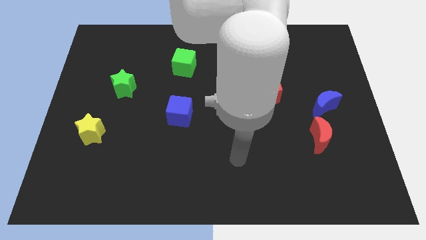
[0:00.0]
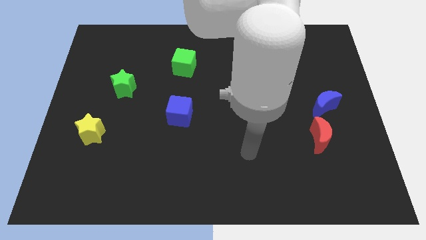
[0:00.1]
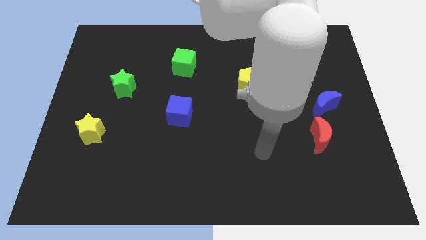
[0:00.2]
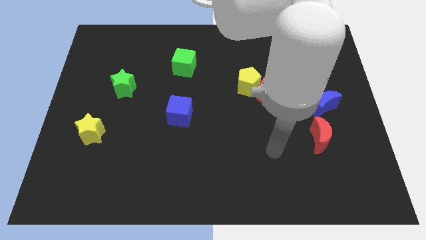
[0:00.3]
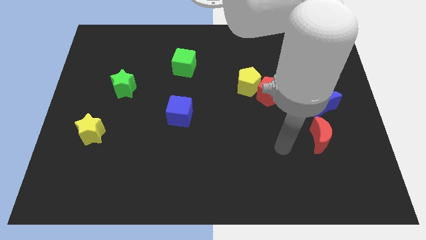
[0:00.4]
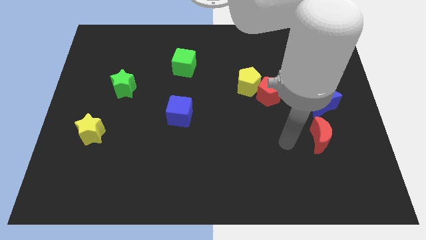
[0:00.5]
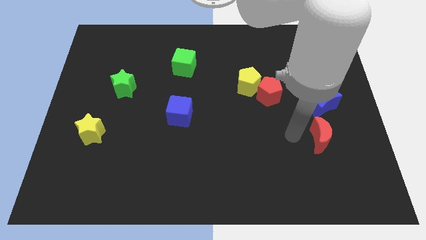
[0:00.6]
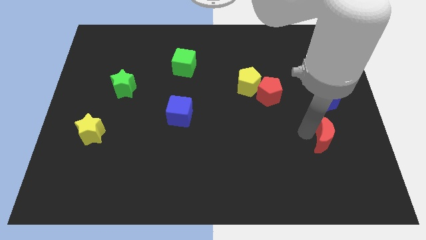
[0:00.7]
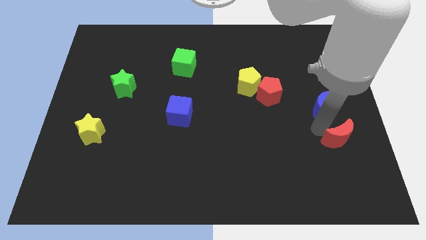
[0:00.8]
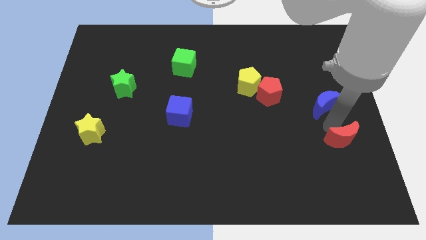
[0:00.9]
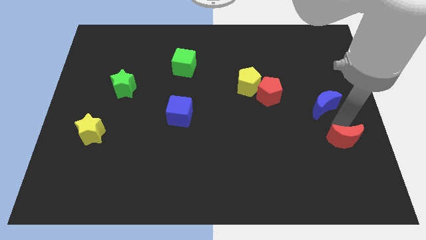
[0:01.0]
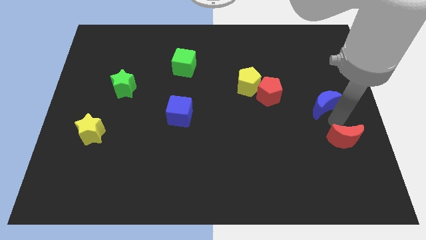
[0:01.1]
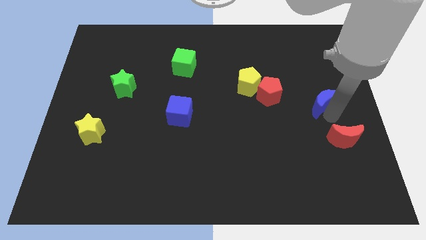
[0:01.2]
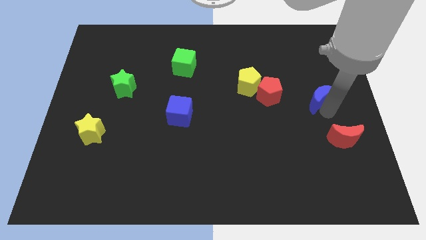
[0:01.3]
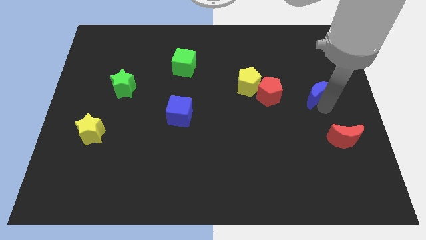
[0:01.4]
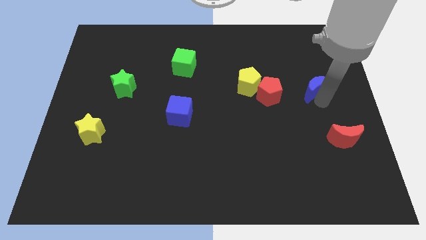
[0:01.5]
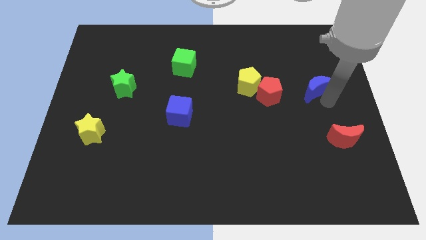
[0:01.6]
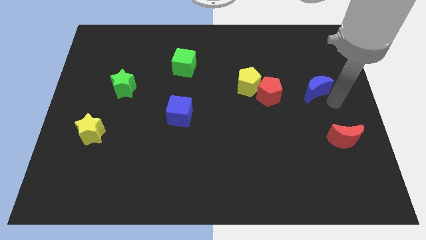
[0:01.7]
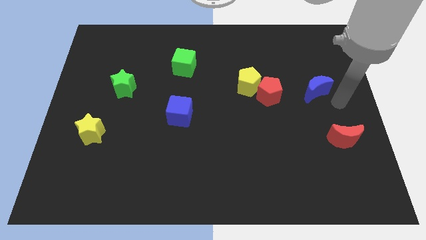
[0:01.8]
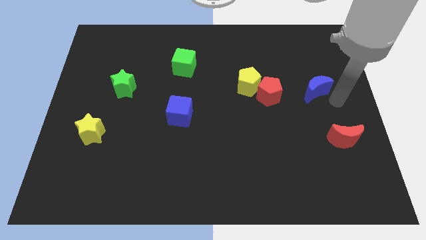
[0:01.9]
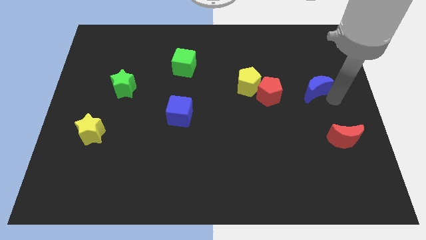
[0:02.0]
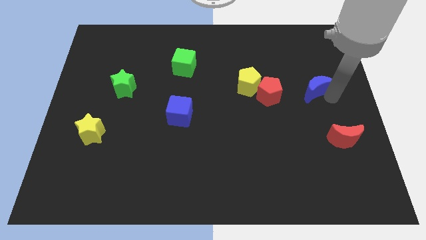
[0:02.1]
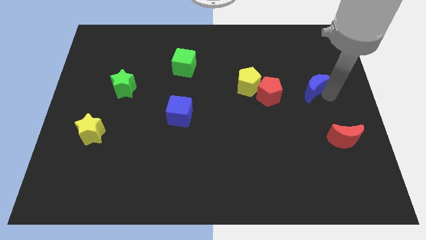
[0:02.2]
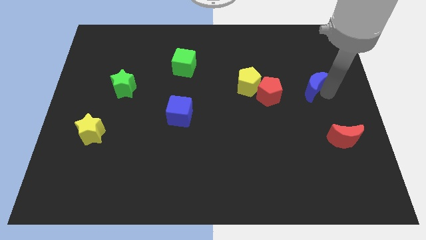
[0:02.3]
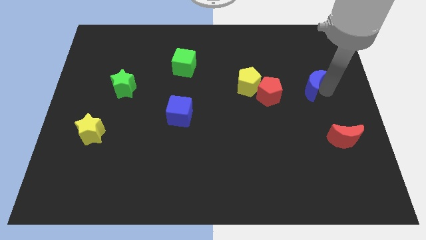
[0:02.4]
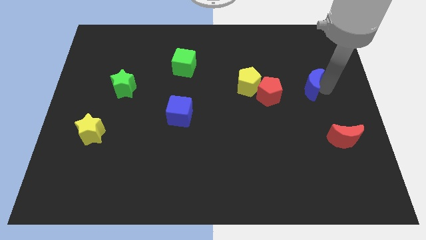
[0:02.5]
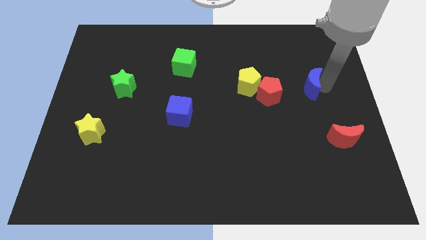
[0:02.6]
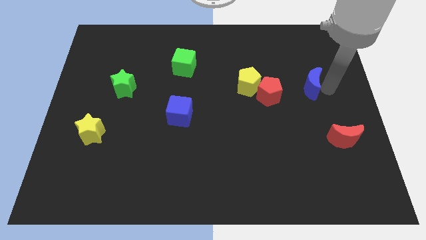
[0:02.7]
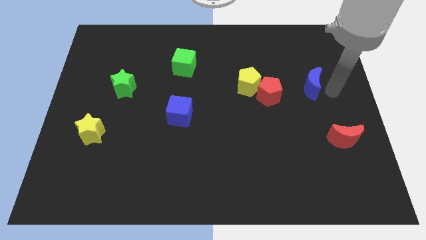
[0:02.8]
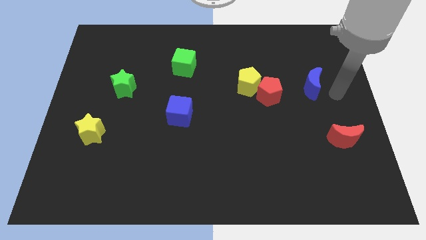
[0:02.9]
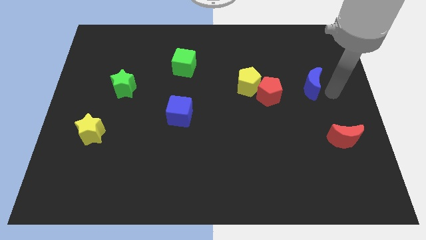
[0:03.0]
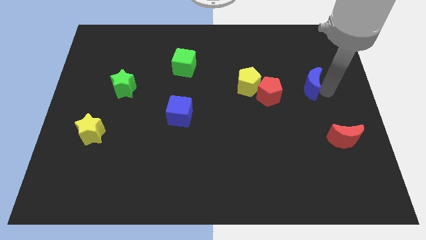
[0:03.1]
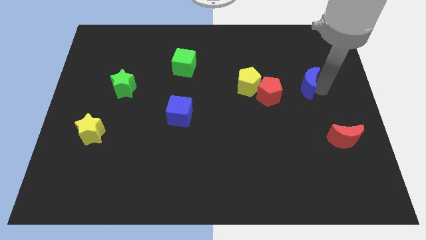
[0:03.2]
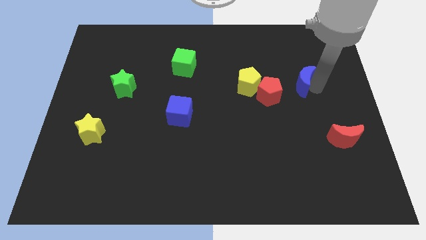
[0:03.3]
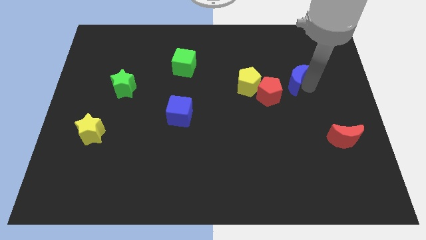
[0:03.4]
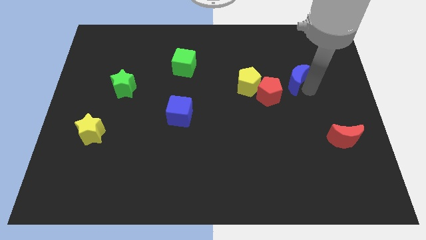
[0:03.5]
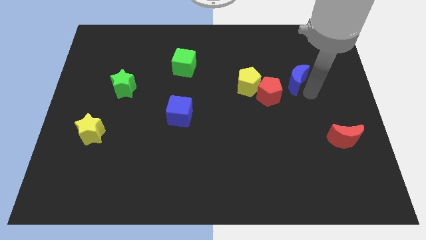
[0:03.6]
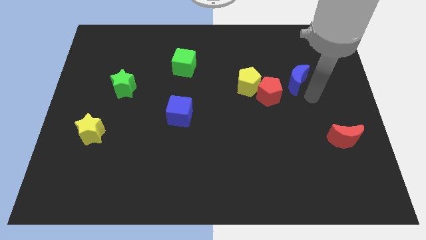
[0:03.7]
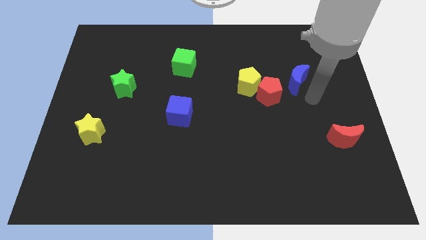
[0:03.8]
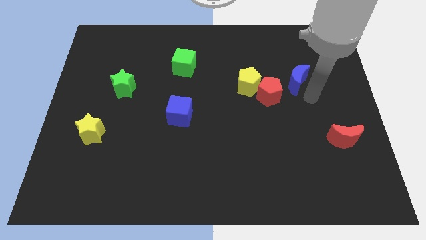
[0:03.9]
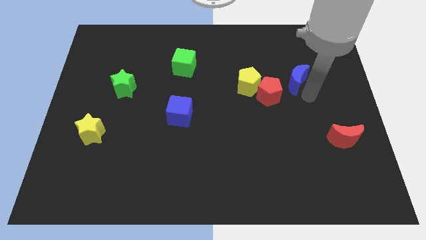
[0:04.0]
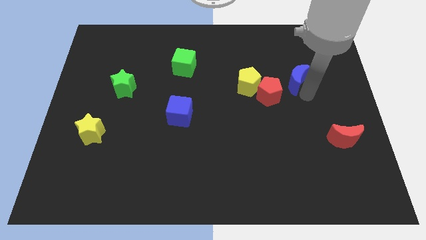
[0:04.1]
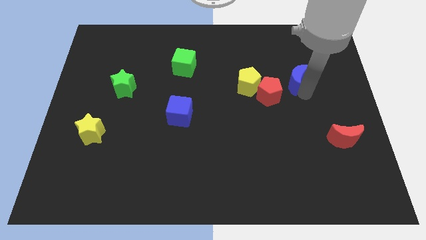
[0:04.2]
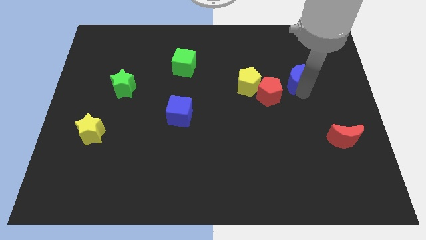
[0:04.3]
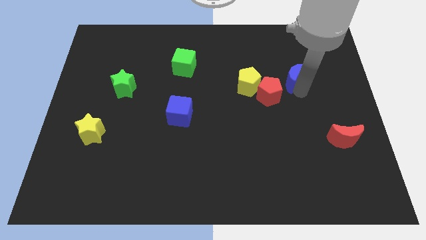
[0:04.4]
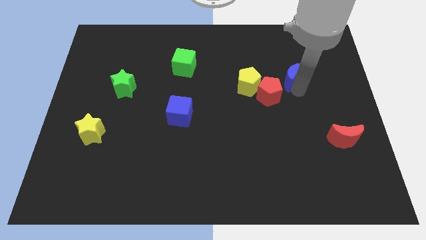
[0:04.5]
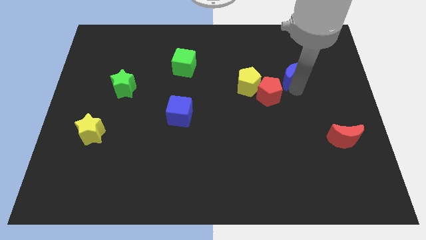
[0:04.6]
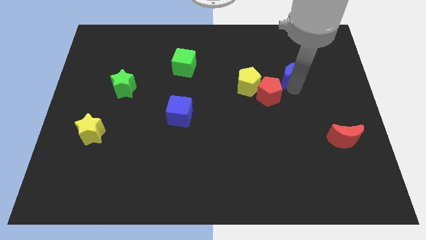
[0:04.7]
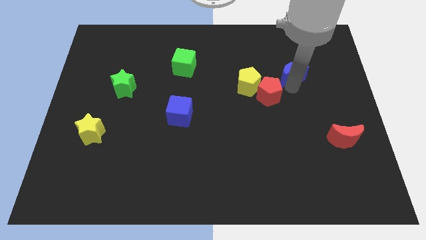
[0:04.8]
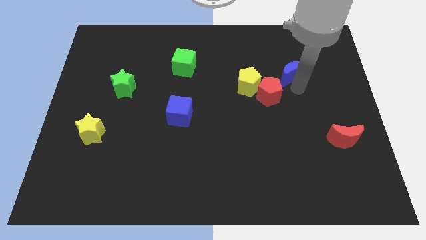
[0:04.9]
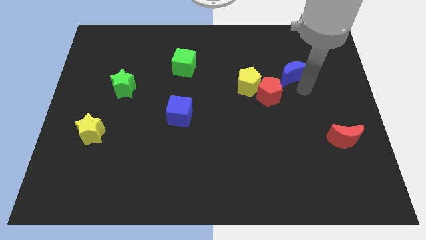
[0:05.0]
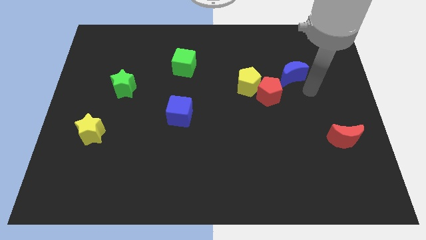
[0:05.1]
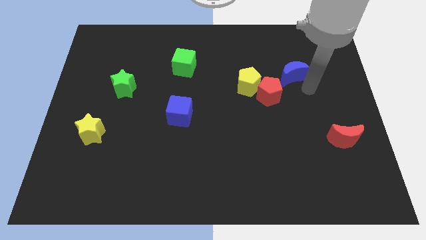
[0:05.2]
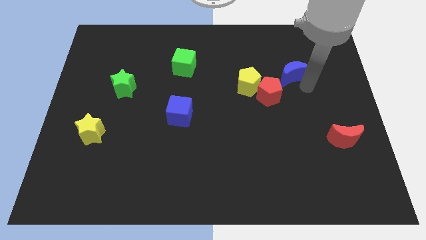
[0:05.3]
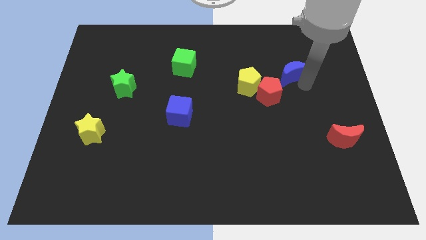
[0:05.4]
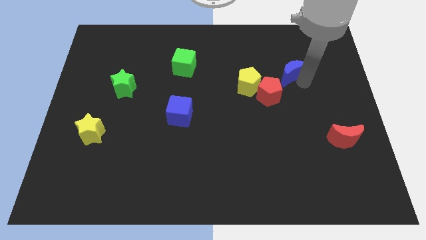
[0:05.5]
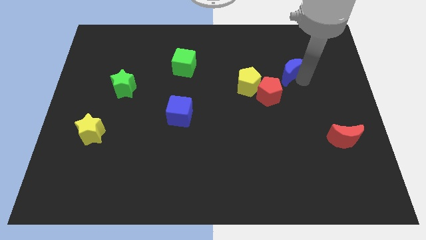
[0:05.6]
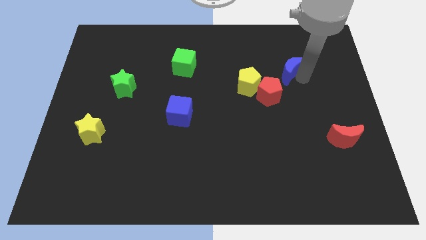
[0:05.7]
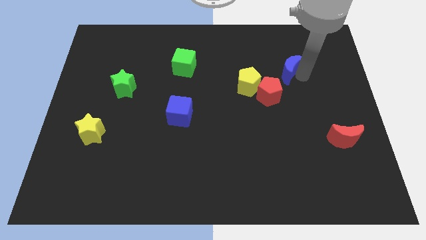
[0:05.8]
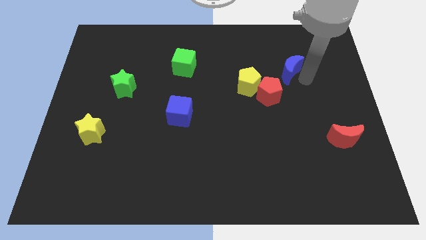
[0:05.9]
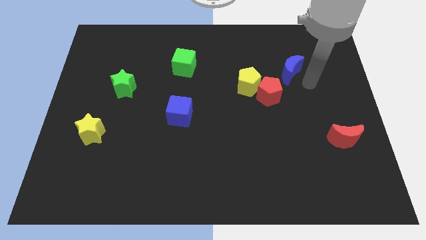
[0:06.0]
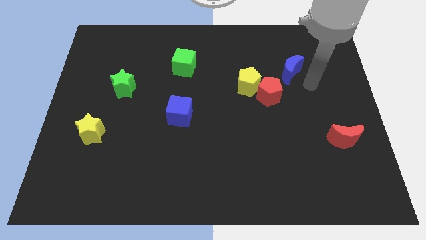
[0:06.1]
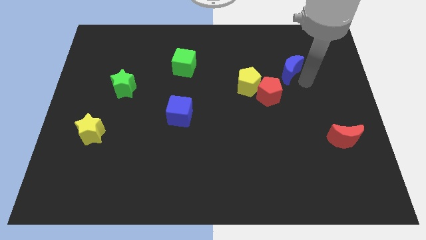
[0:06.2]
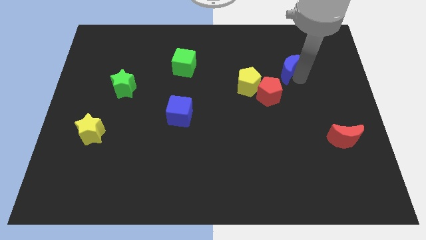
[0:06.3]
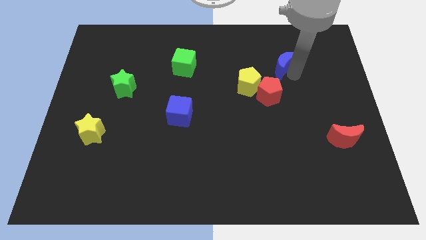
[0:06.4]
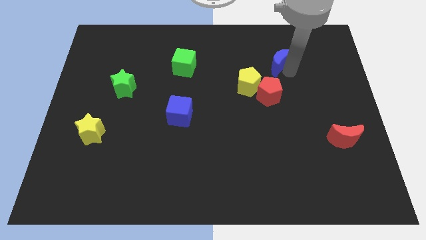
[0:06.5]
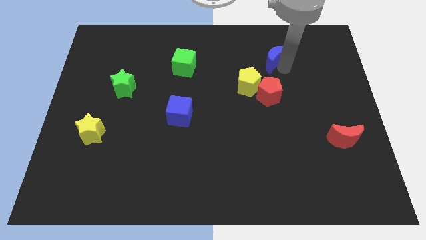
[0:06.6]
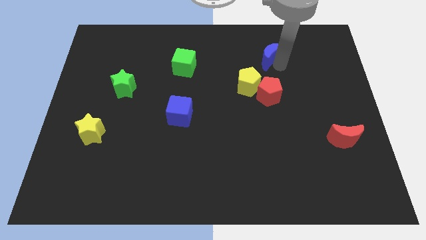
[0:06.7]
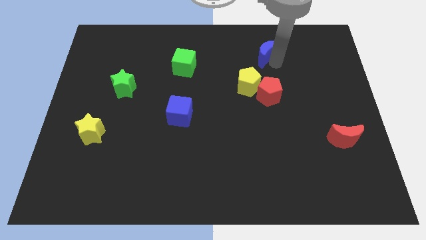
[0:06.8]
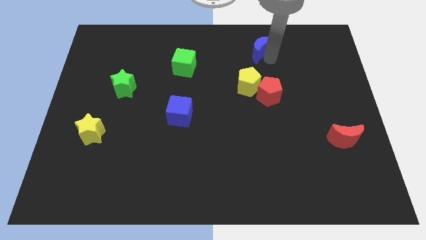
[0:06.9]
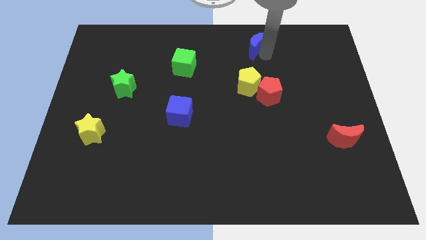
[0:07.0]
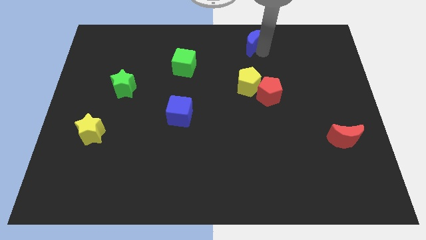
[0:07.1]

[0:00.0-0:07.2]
push the blue moon to the top side
